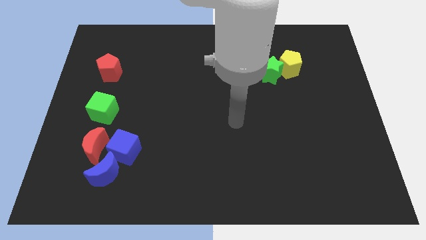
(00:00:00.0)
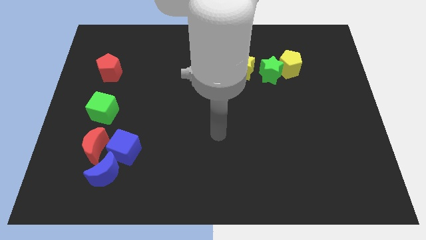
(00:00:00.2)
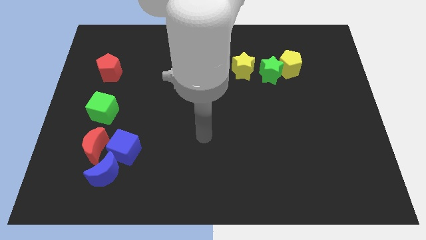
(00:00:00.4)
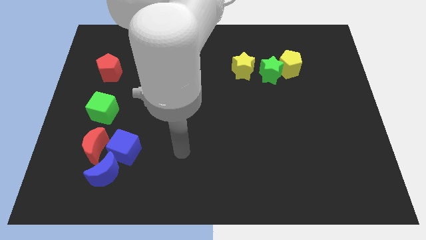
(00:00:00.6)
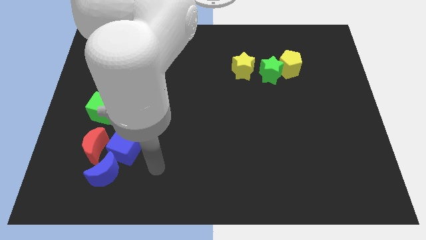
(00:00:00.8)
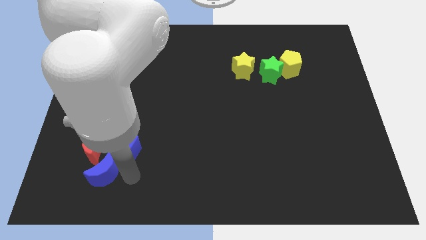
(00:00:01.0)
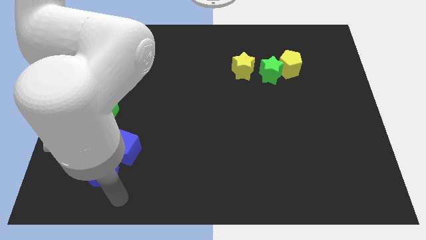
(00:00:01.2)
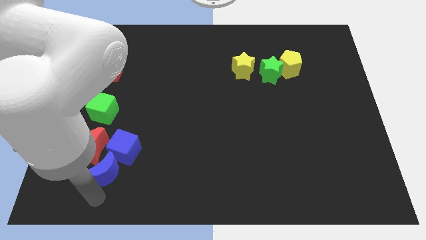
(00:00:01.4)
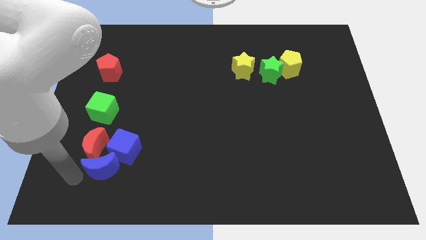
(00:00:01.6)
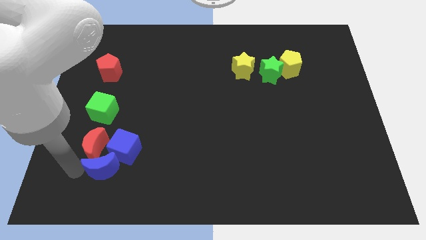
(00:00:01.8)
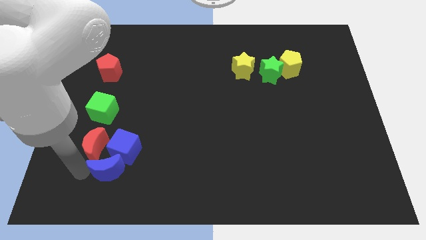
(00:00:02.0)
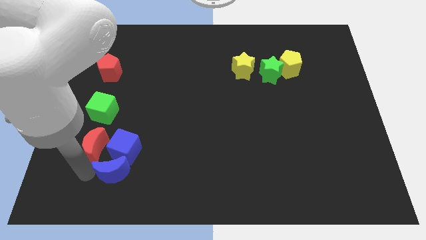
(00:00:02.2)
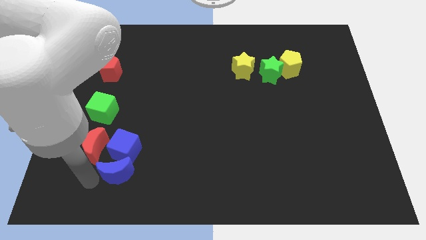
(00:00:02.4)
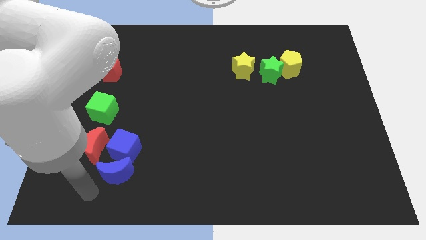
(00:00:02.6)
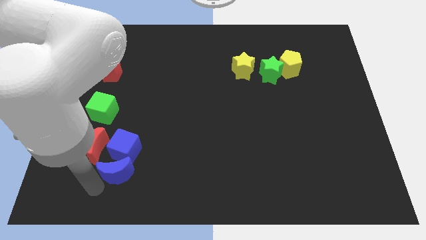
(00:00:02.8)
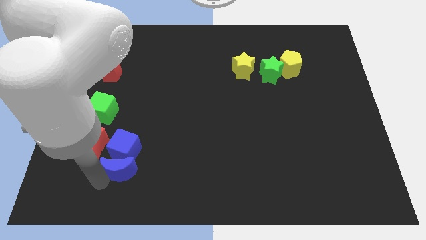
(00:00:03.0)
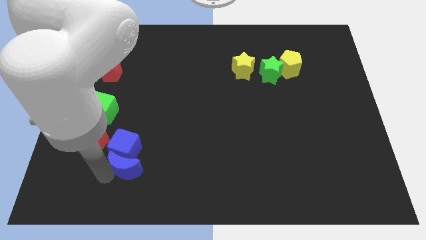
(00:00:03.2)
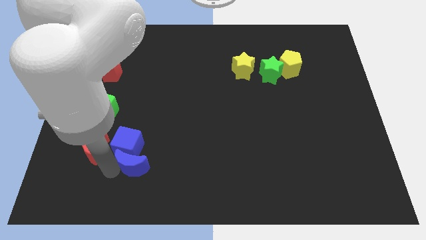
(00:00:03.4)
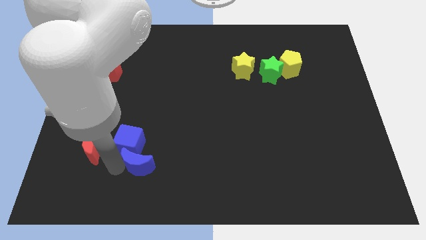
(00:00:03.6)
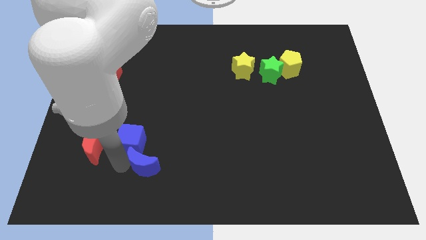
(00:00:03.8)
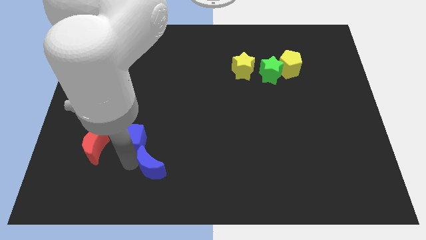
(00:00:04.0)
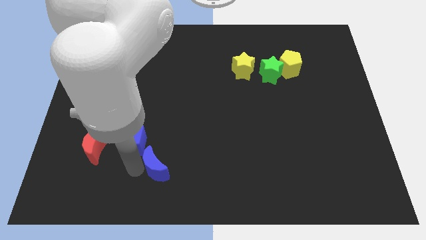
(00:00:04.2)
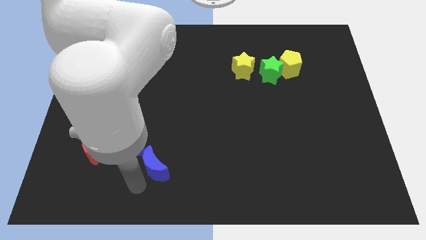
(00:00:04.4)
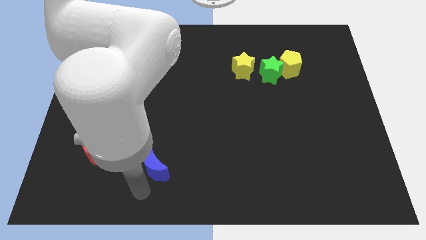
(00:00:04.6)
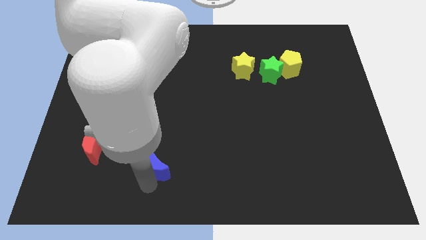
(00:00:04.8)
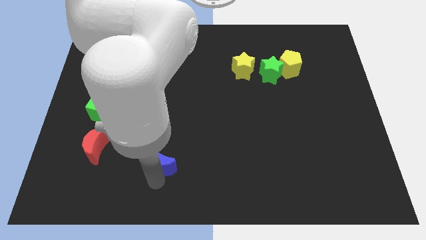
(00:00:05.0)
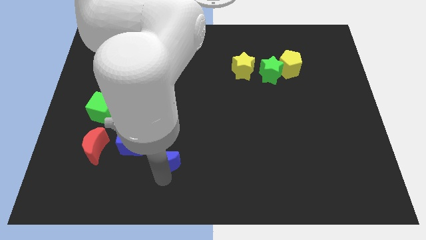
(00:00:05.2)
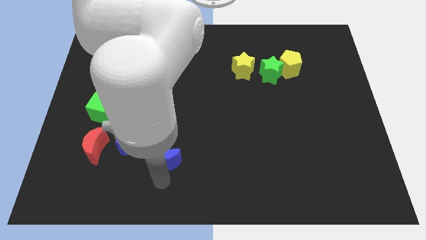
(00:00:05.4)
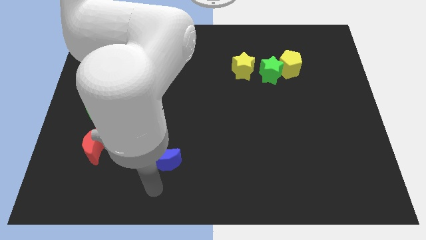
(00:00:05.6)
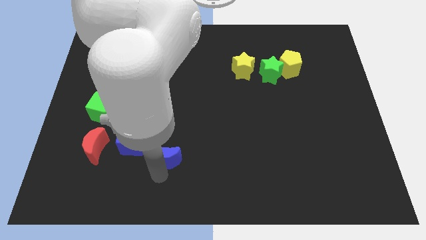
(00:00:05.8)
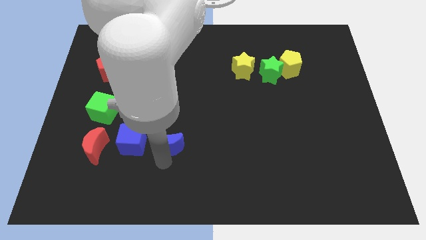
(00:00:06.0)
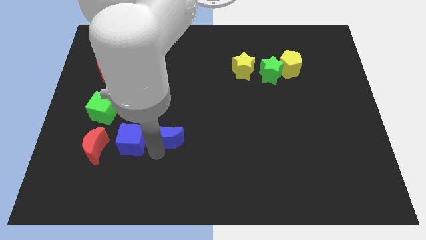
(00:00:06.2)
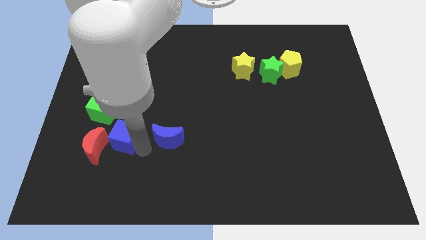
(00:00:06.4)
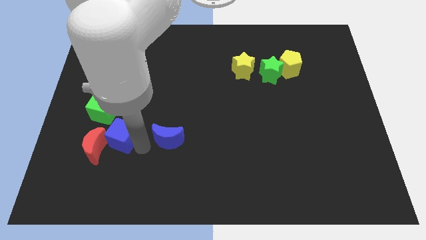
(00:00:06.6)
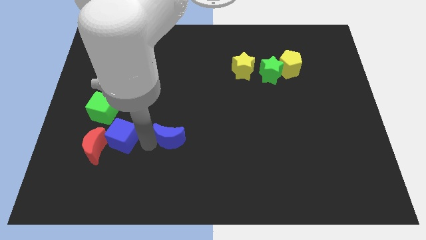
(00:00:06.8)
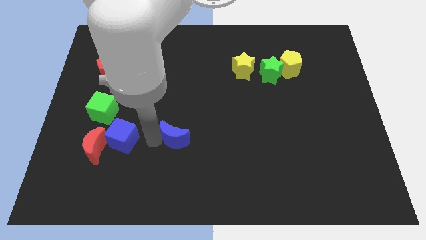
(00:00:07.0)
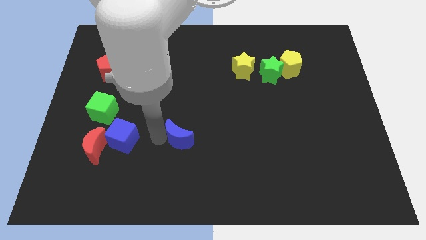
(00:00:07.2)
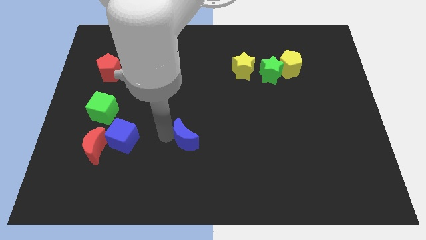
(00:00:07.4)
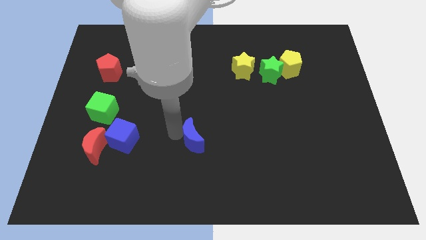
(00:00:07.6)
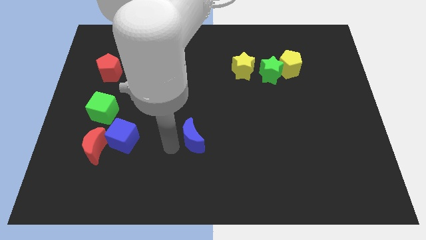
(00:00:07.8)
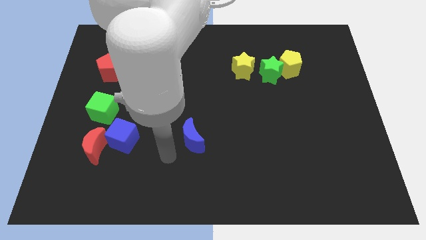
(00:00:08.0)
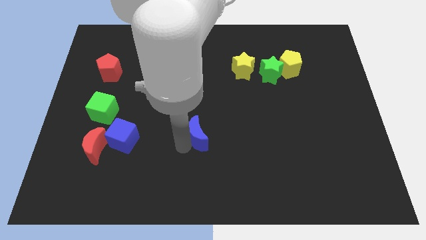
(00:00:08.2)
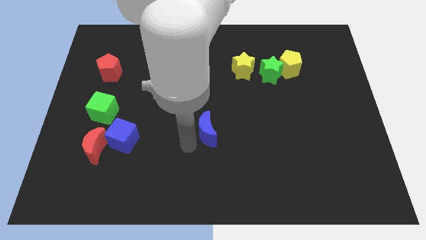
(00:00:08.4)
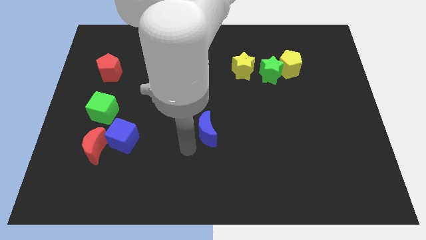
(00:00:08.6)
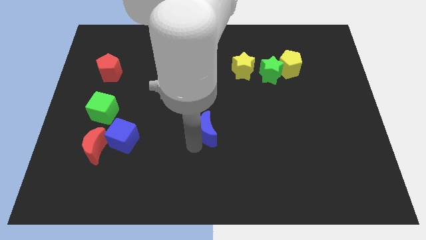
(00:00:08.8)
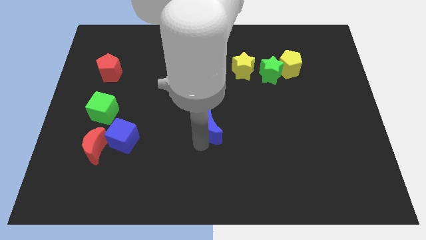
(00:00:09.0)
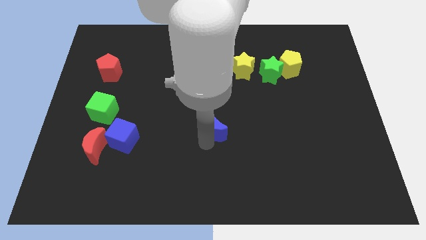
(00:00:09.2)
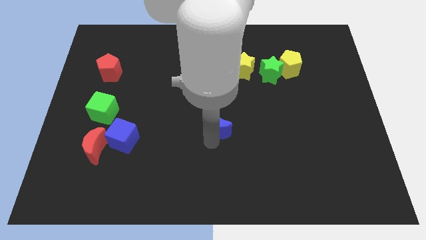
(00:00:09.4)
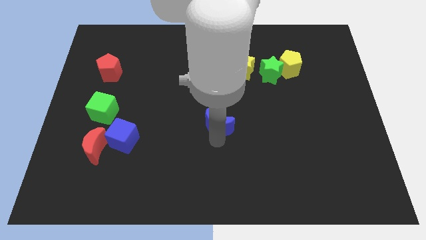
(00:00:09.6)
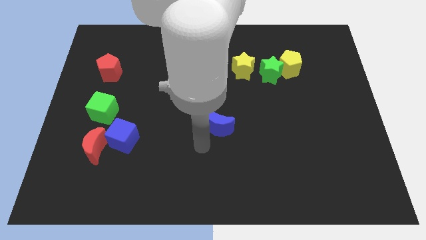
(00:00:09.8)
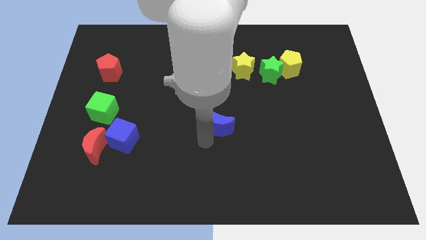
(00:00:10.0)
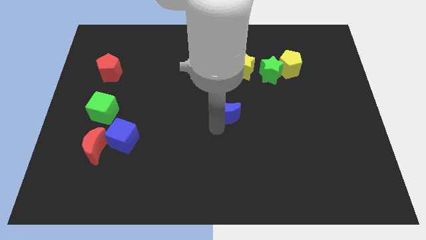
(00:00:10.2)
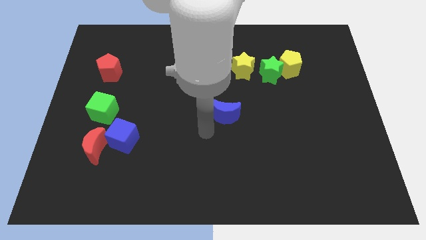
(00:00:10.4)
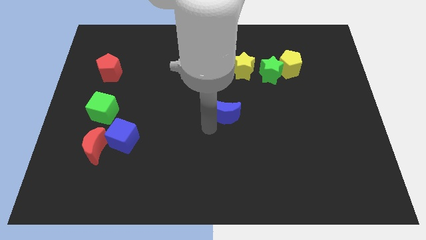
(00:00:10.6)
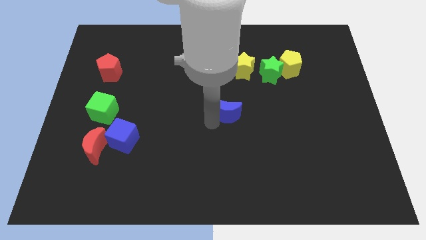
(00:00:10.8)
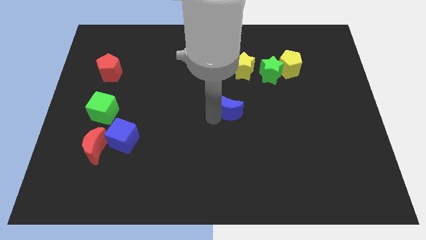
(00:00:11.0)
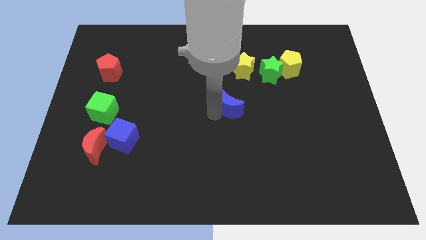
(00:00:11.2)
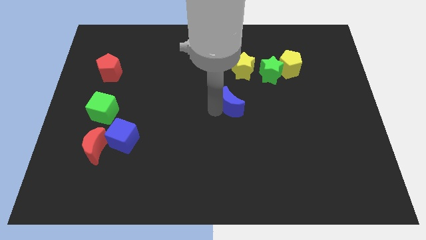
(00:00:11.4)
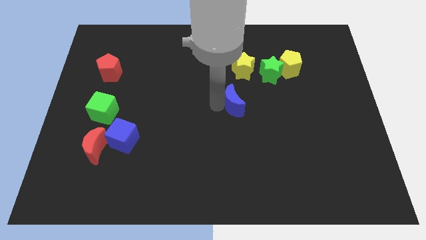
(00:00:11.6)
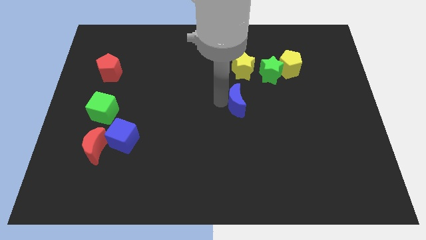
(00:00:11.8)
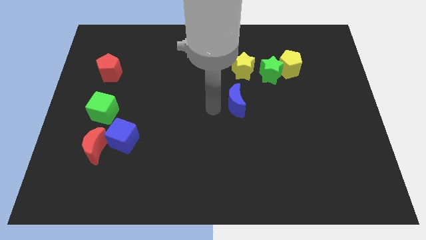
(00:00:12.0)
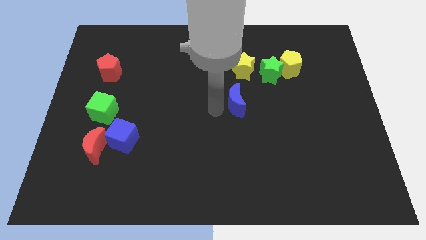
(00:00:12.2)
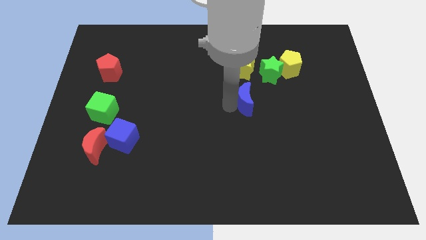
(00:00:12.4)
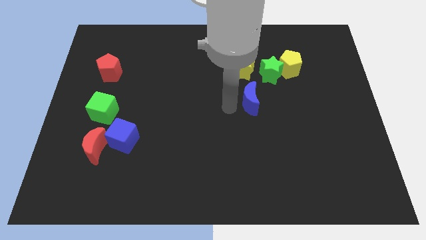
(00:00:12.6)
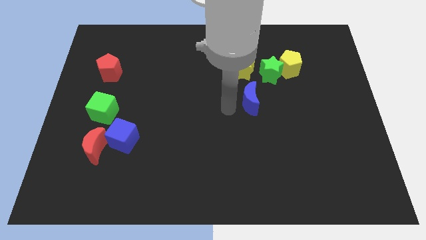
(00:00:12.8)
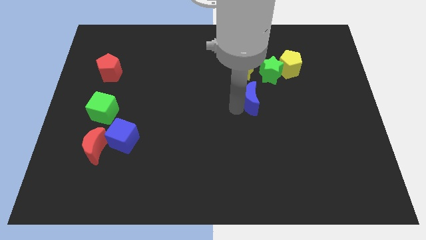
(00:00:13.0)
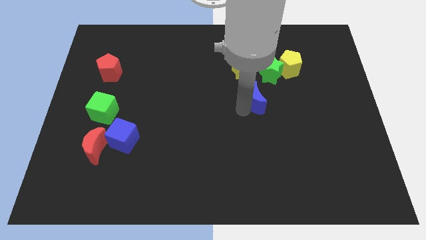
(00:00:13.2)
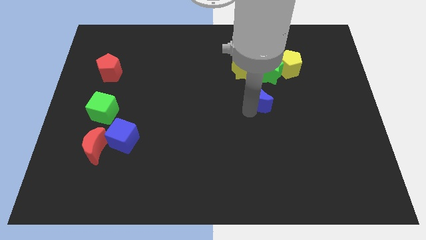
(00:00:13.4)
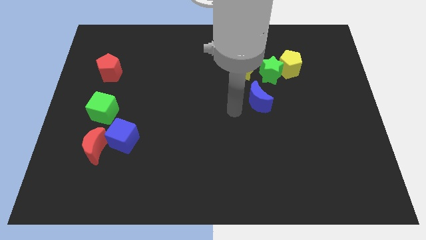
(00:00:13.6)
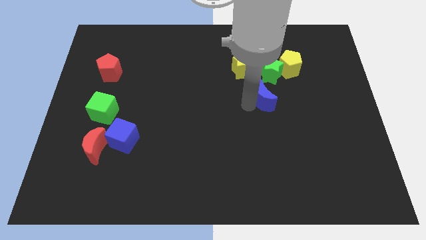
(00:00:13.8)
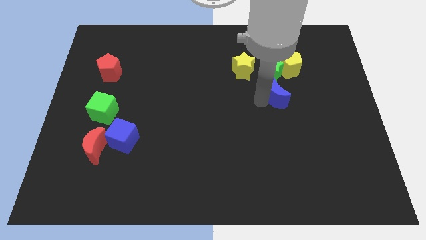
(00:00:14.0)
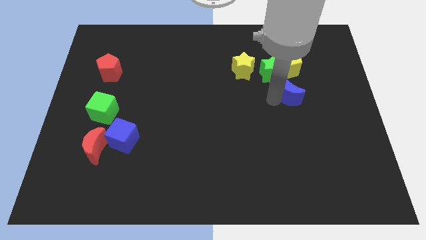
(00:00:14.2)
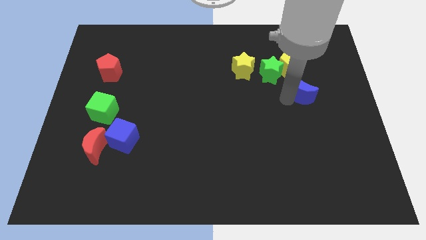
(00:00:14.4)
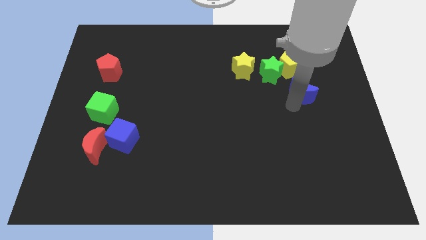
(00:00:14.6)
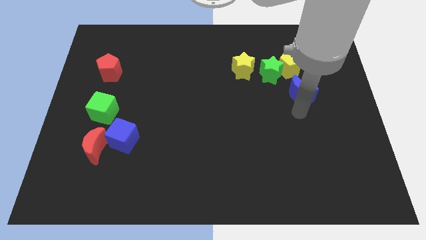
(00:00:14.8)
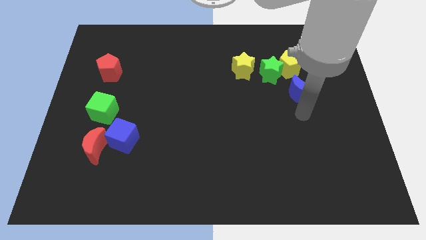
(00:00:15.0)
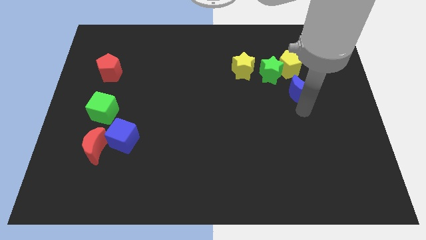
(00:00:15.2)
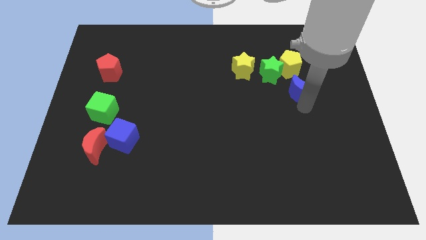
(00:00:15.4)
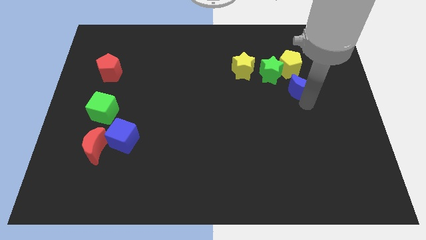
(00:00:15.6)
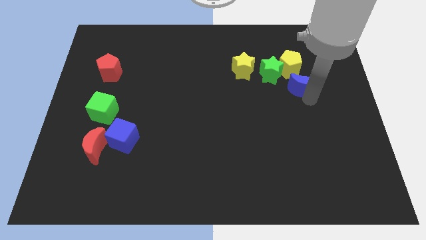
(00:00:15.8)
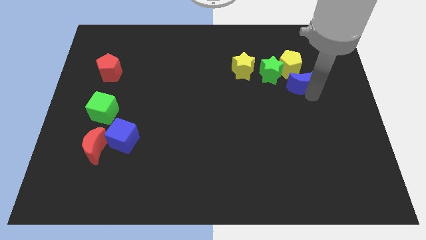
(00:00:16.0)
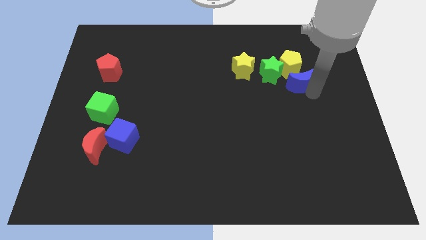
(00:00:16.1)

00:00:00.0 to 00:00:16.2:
slide the blue moon next to the yellow pentagon
